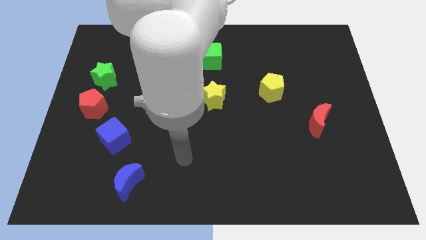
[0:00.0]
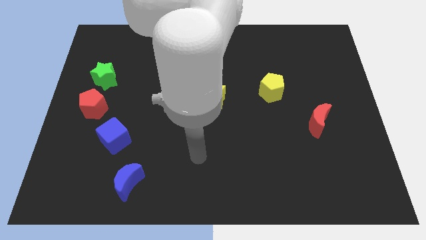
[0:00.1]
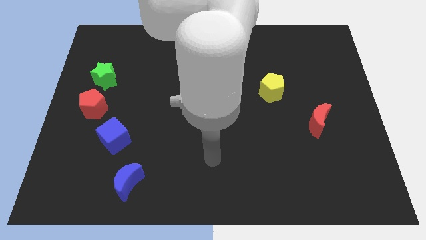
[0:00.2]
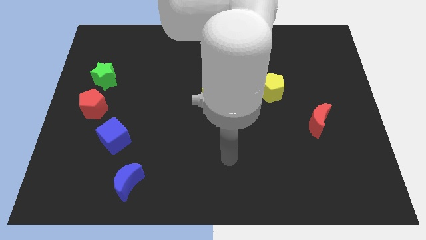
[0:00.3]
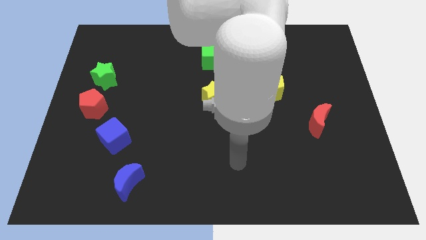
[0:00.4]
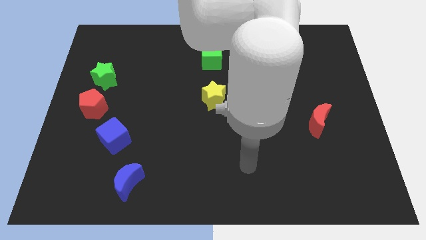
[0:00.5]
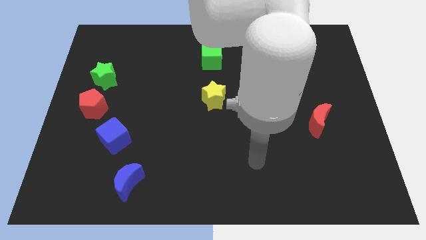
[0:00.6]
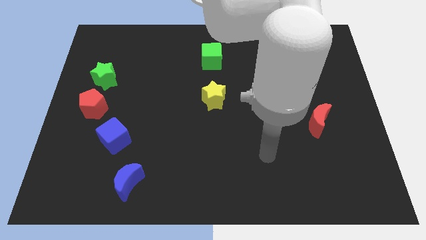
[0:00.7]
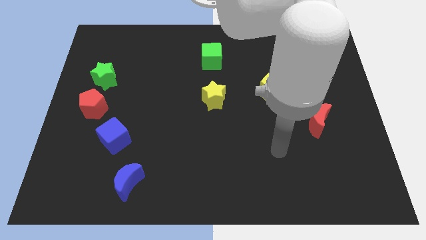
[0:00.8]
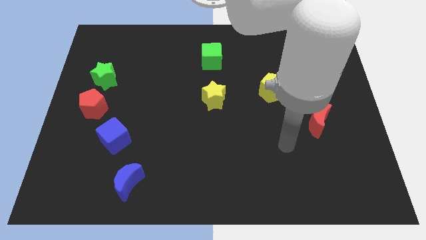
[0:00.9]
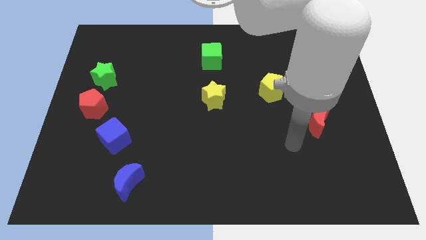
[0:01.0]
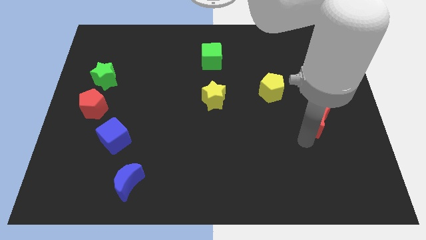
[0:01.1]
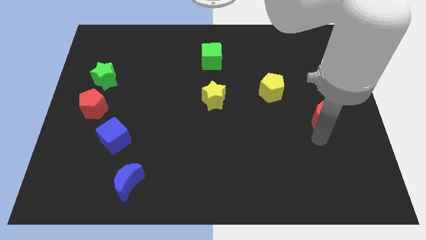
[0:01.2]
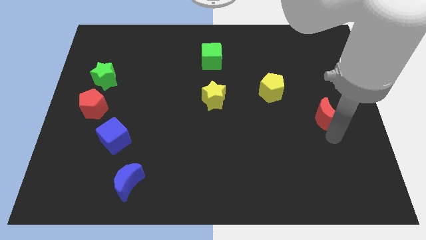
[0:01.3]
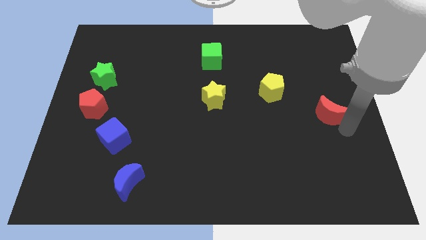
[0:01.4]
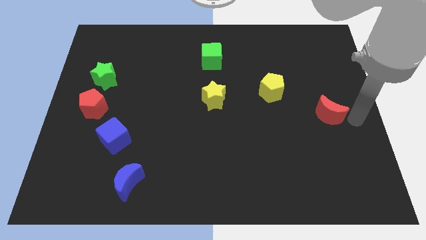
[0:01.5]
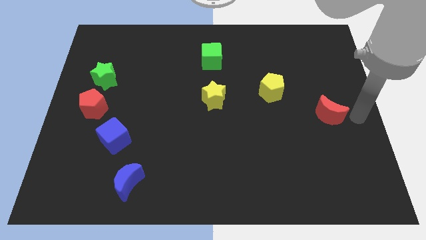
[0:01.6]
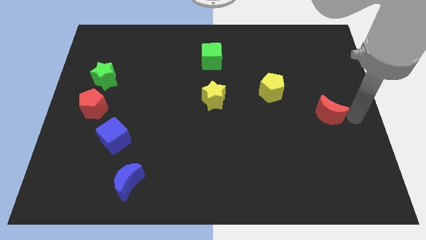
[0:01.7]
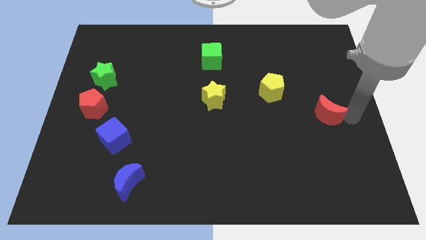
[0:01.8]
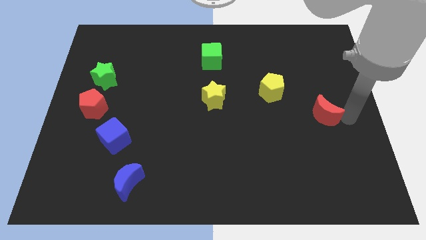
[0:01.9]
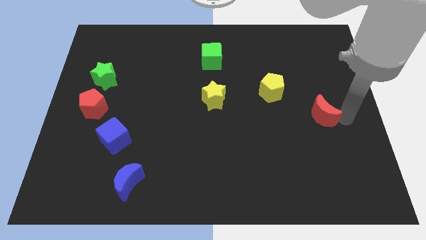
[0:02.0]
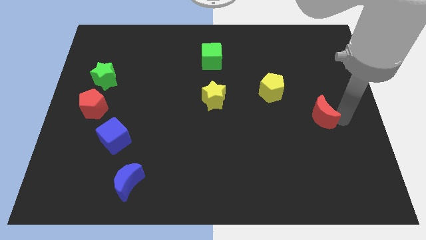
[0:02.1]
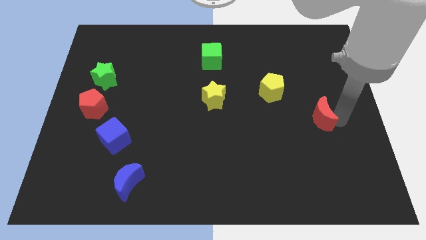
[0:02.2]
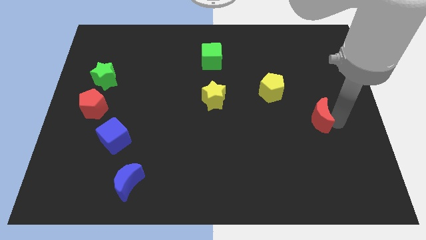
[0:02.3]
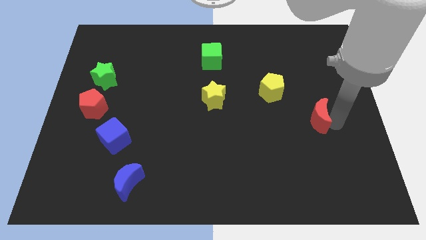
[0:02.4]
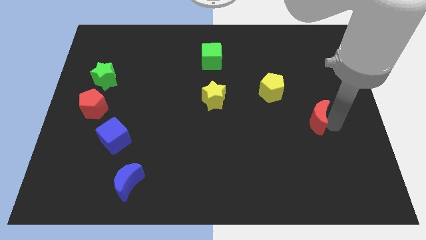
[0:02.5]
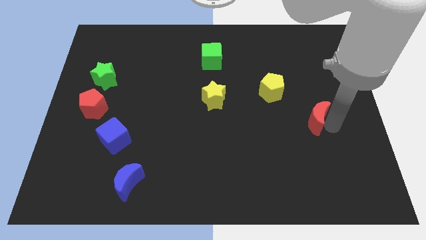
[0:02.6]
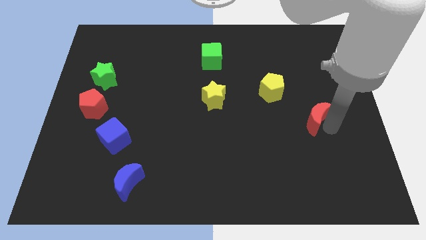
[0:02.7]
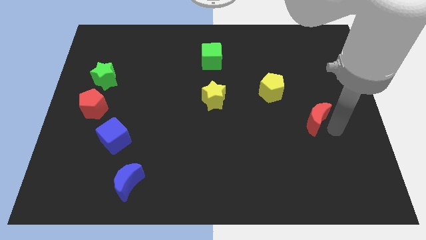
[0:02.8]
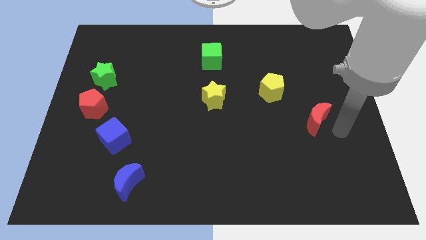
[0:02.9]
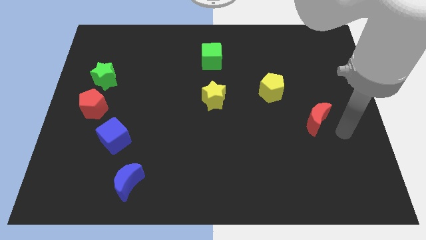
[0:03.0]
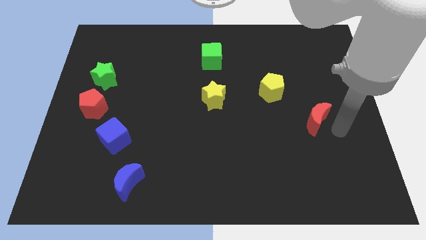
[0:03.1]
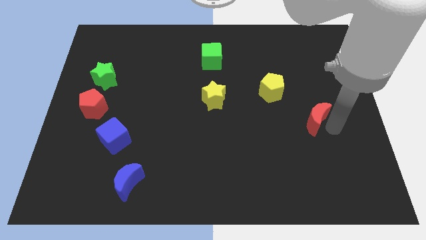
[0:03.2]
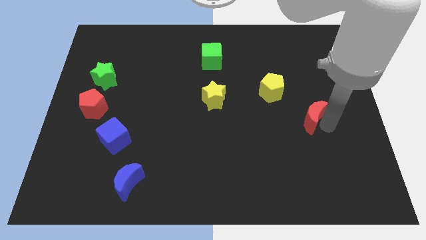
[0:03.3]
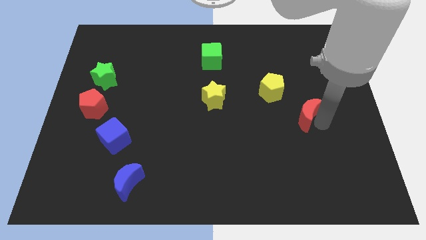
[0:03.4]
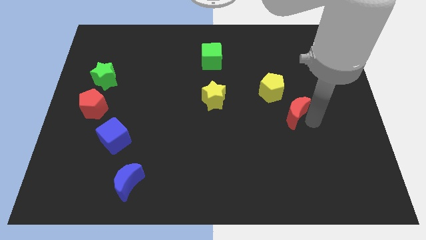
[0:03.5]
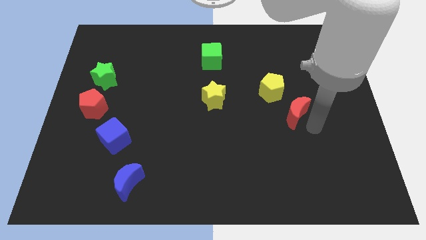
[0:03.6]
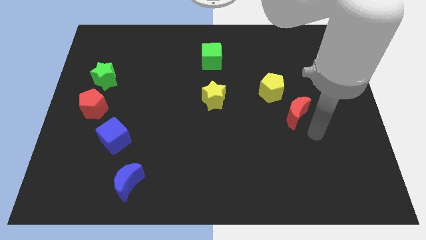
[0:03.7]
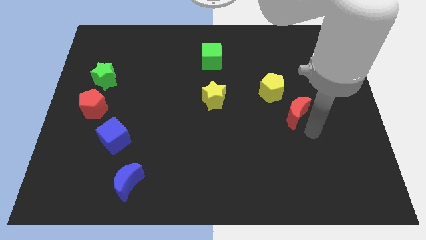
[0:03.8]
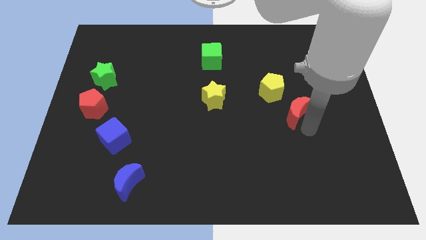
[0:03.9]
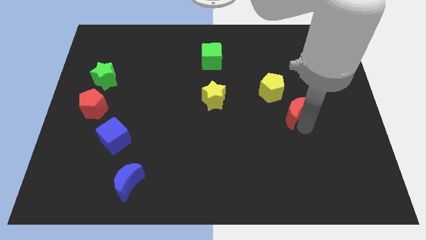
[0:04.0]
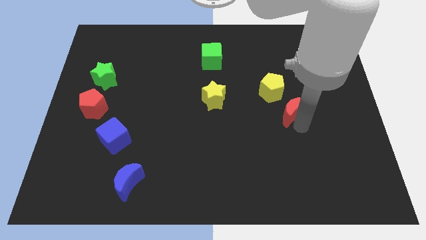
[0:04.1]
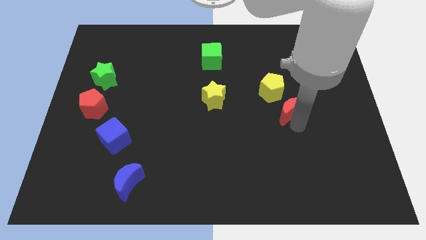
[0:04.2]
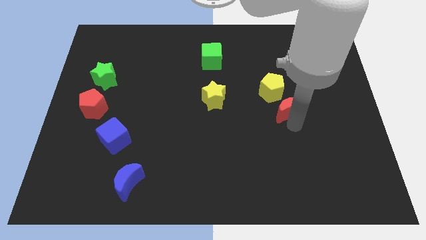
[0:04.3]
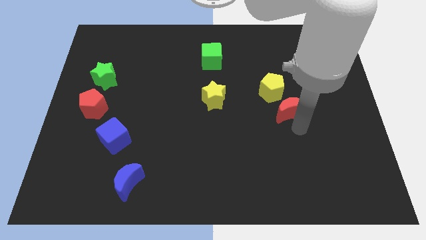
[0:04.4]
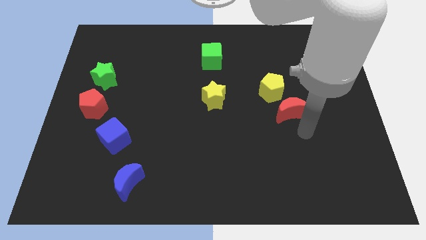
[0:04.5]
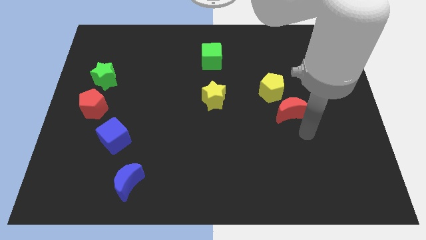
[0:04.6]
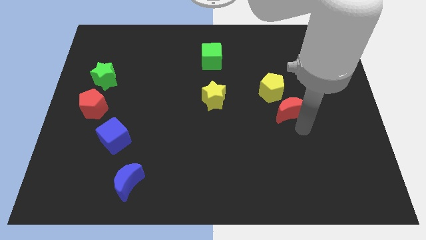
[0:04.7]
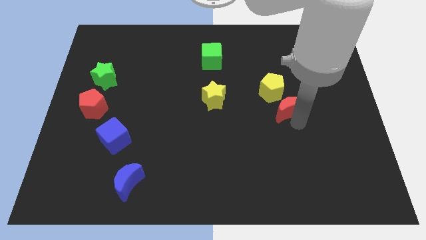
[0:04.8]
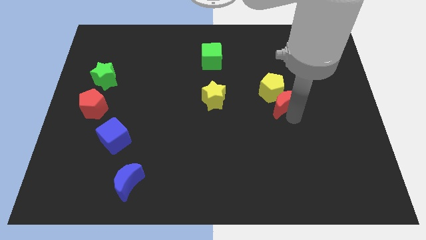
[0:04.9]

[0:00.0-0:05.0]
slide the red moon to the yellow pentagon

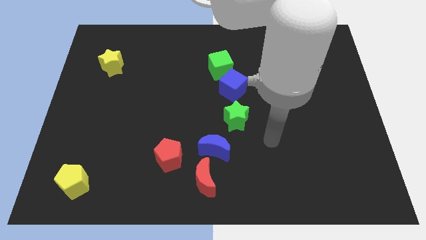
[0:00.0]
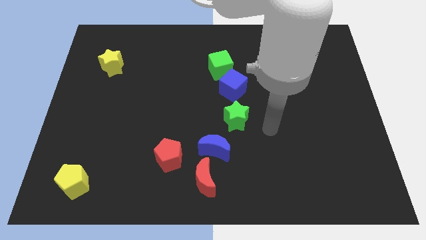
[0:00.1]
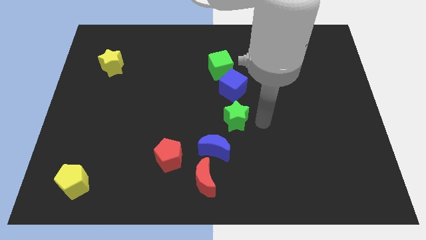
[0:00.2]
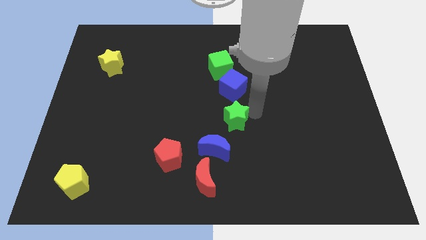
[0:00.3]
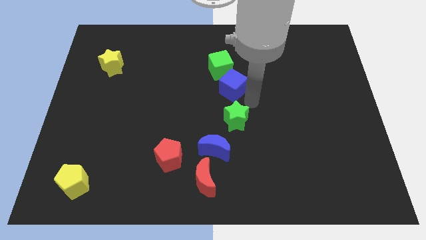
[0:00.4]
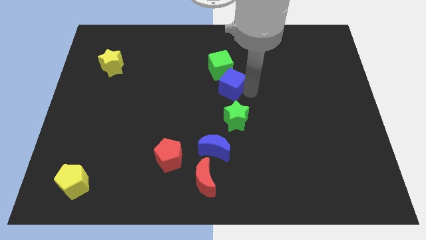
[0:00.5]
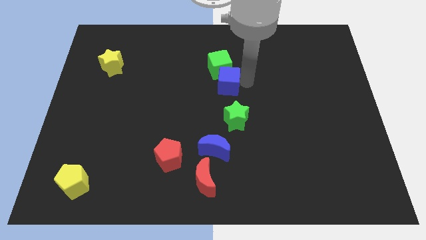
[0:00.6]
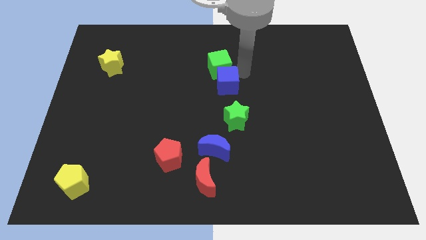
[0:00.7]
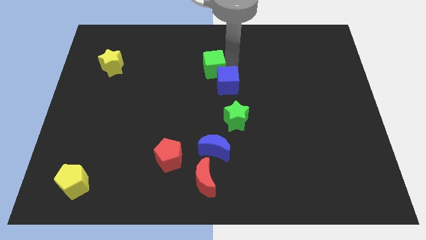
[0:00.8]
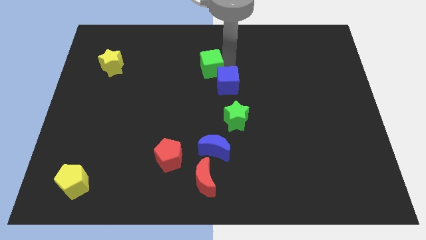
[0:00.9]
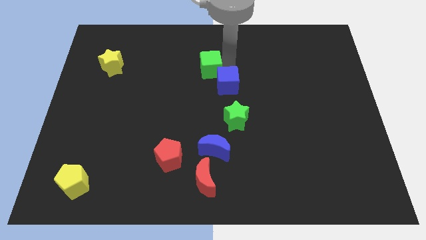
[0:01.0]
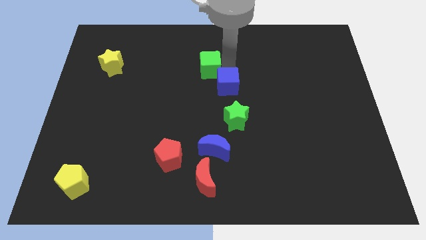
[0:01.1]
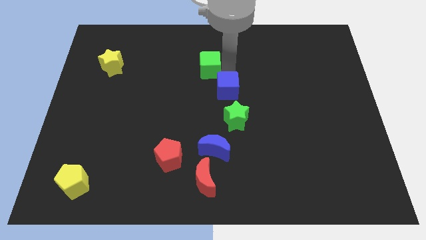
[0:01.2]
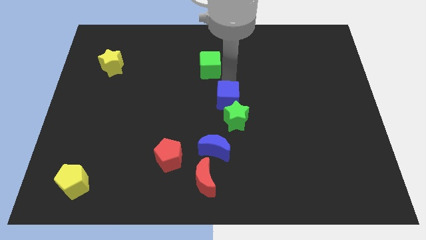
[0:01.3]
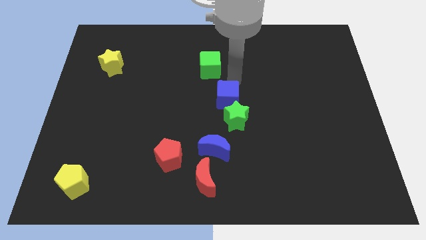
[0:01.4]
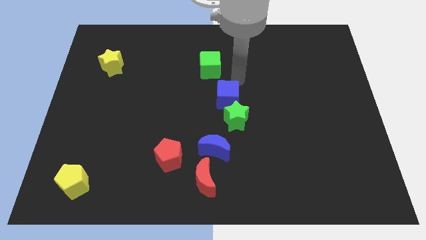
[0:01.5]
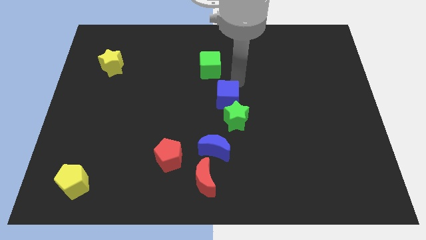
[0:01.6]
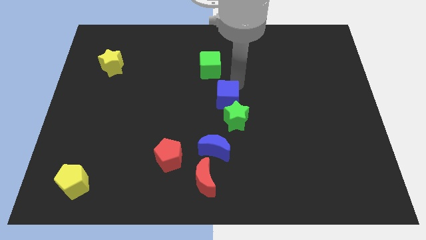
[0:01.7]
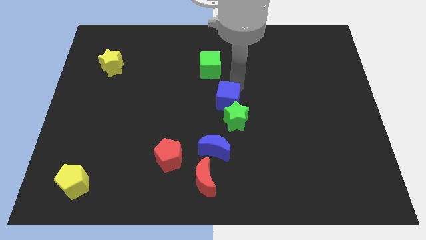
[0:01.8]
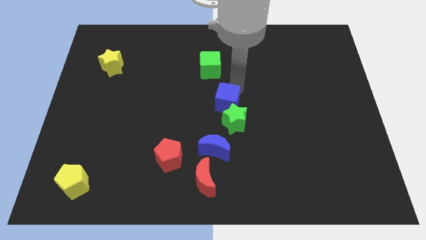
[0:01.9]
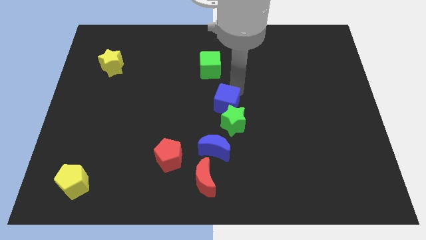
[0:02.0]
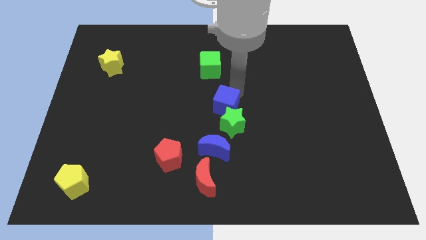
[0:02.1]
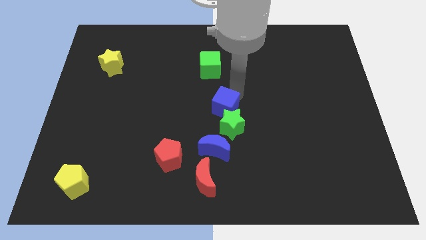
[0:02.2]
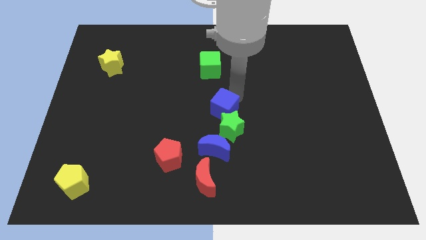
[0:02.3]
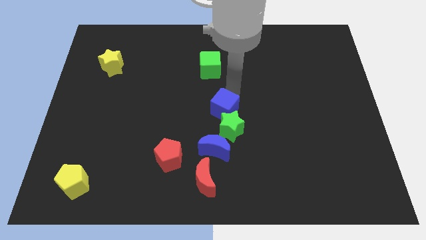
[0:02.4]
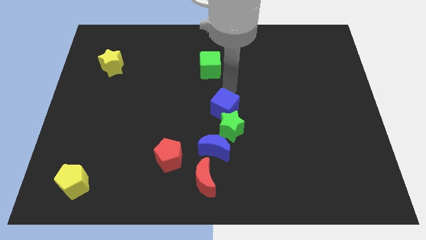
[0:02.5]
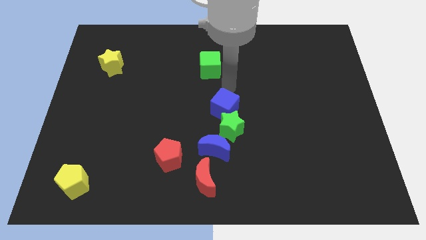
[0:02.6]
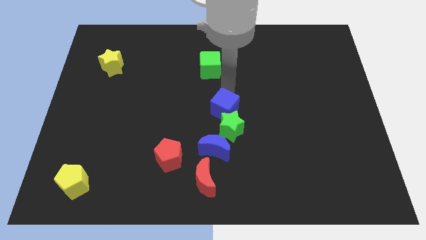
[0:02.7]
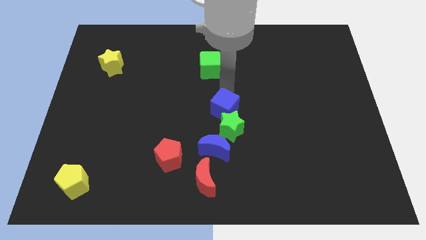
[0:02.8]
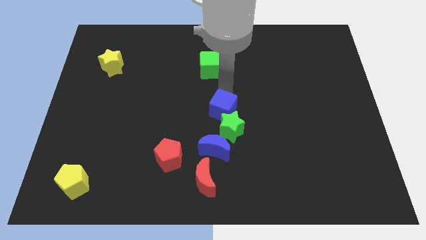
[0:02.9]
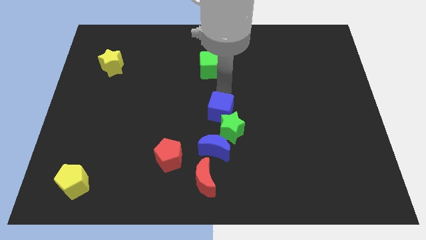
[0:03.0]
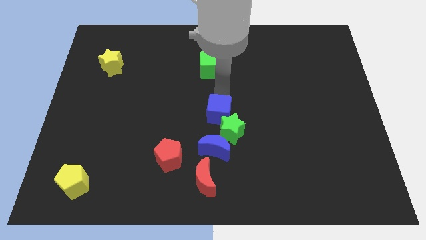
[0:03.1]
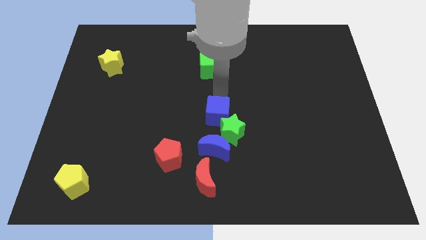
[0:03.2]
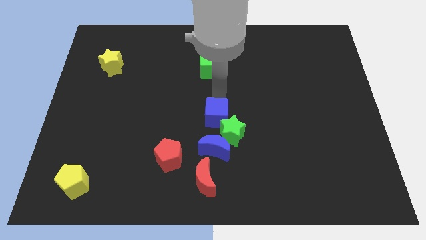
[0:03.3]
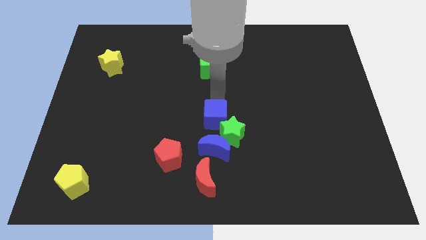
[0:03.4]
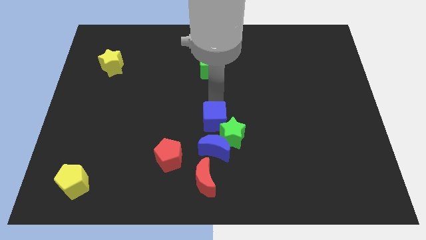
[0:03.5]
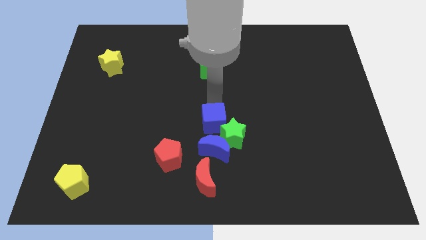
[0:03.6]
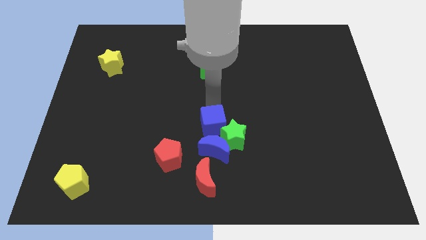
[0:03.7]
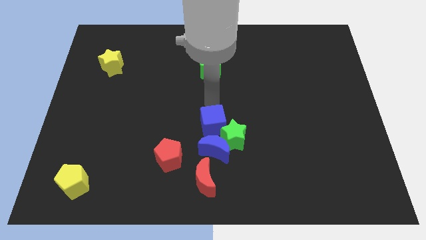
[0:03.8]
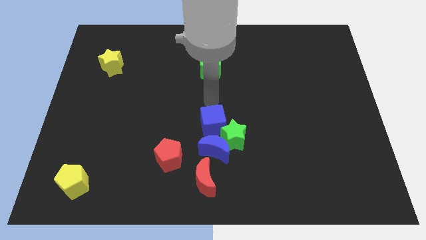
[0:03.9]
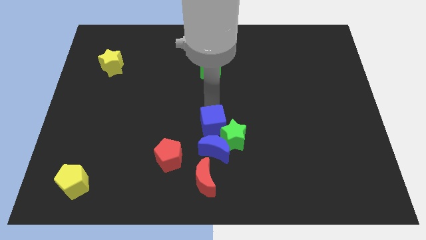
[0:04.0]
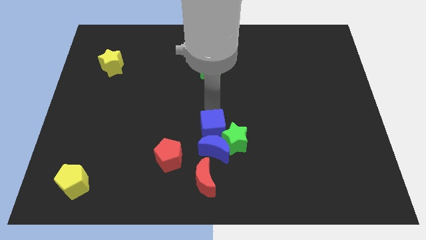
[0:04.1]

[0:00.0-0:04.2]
slide the blue cube to the blue moon
